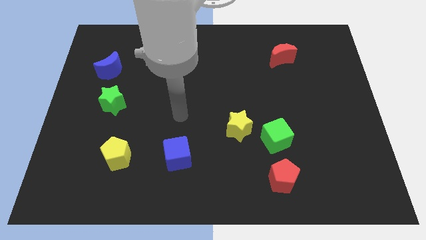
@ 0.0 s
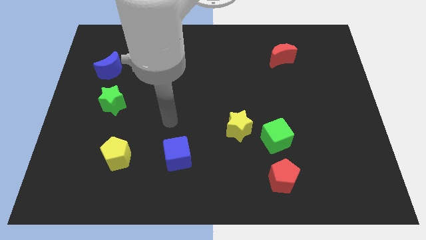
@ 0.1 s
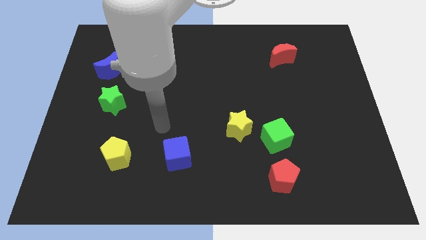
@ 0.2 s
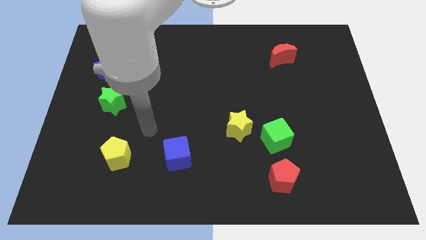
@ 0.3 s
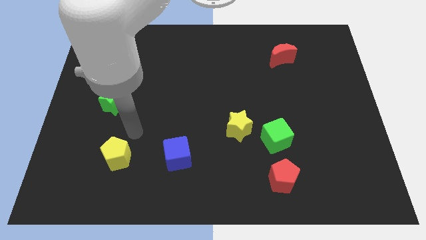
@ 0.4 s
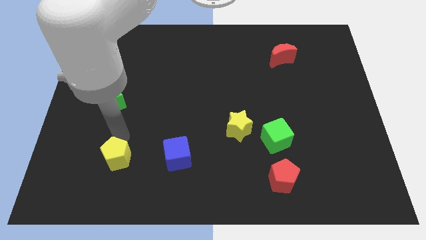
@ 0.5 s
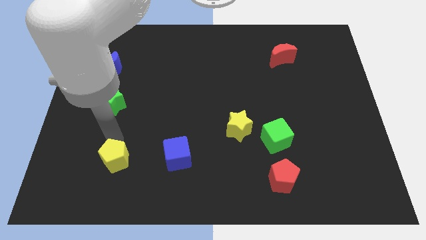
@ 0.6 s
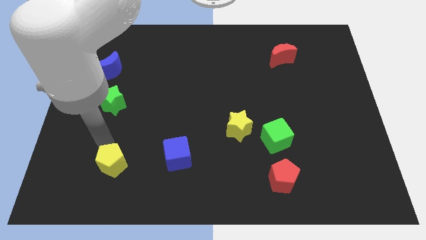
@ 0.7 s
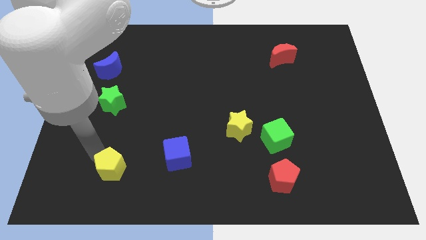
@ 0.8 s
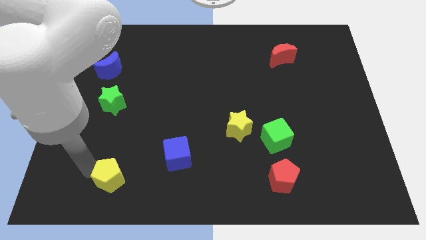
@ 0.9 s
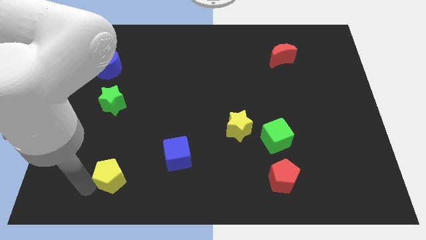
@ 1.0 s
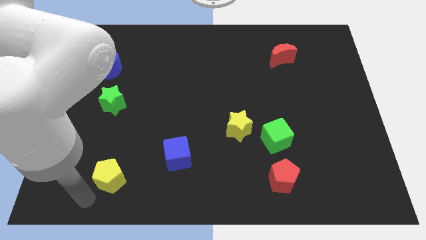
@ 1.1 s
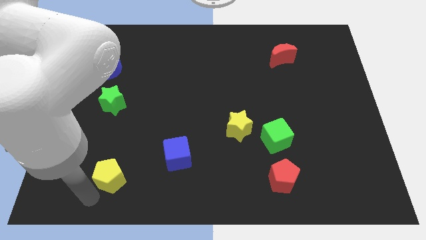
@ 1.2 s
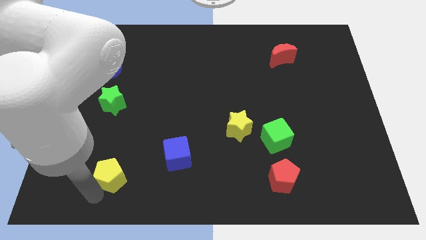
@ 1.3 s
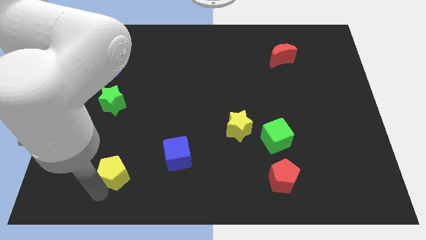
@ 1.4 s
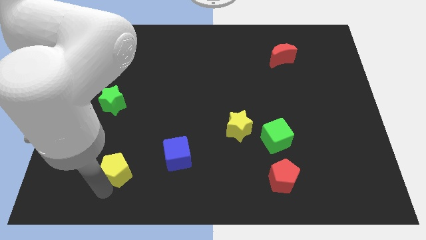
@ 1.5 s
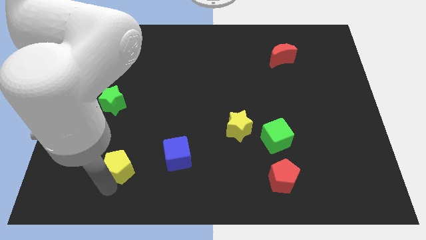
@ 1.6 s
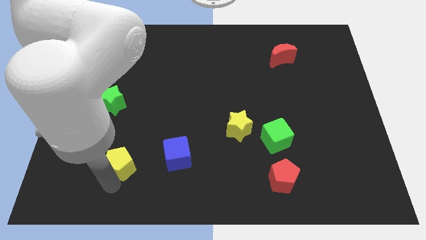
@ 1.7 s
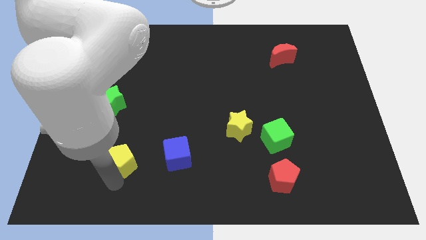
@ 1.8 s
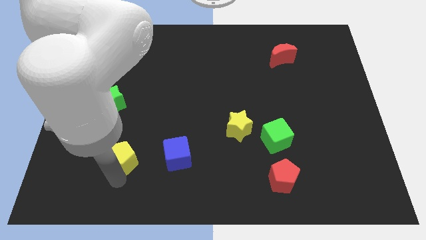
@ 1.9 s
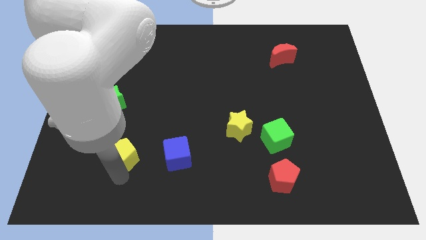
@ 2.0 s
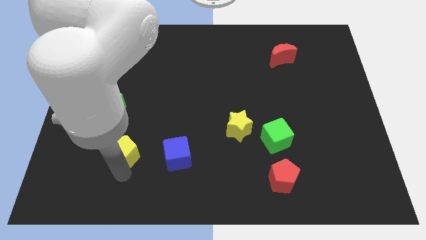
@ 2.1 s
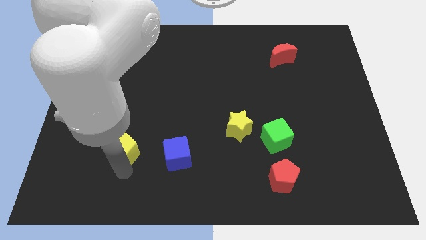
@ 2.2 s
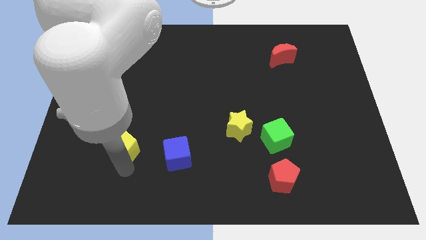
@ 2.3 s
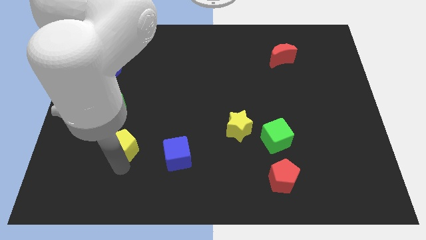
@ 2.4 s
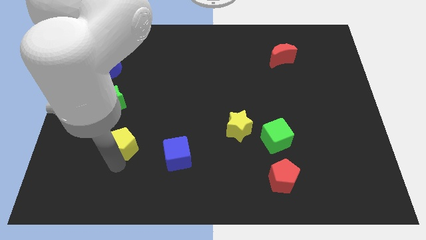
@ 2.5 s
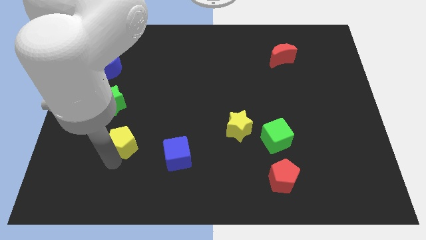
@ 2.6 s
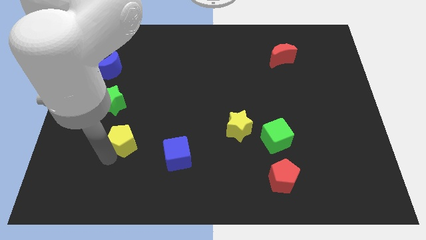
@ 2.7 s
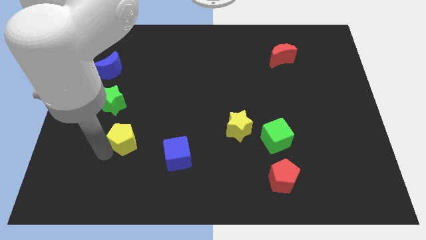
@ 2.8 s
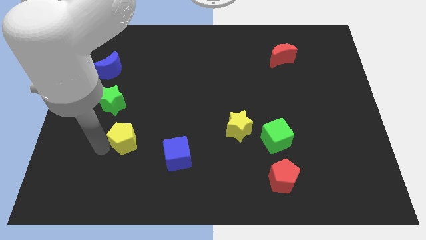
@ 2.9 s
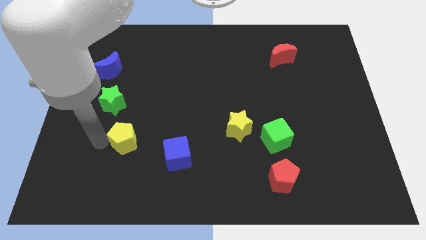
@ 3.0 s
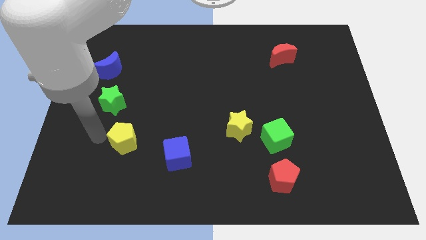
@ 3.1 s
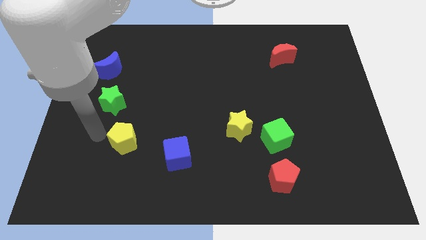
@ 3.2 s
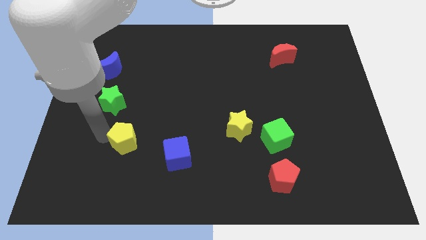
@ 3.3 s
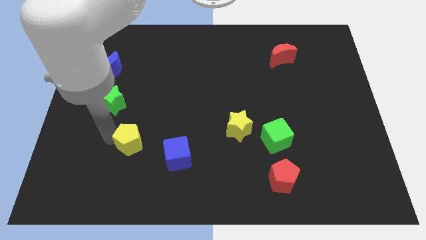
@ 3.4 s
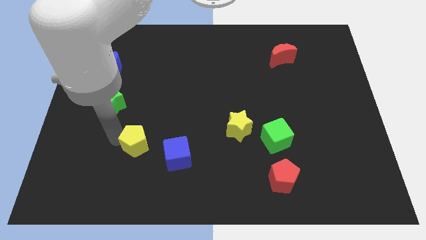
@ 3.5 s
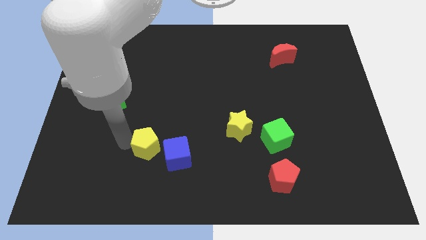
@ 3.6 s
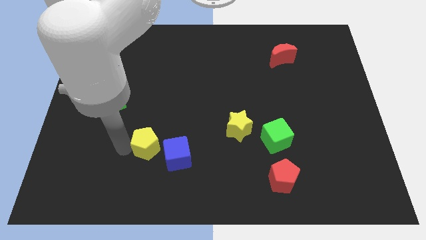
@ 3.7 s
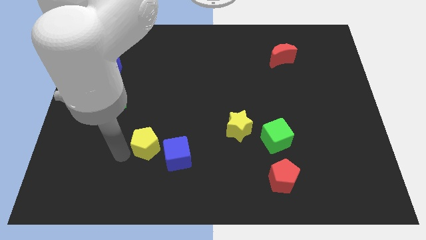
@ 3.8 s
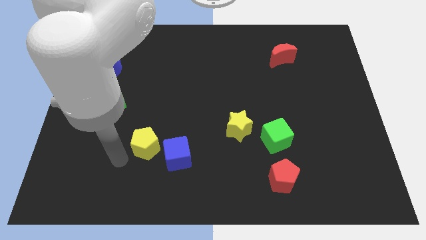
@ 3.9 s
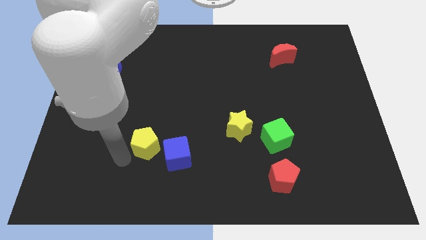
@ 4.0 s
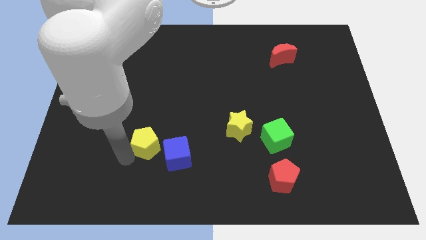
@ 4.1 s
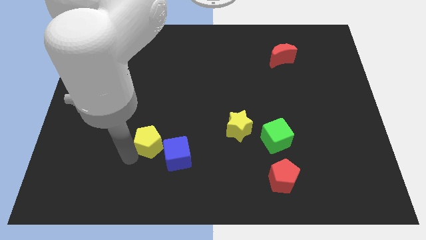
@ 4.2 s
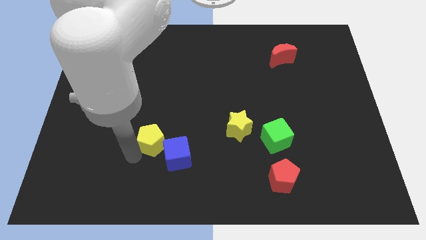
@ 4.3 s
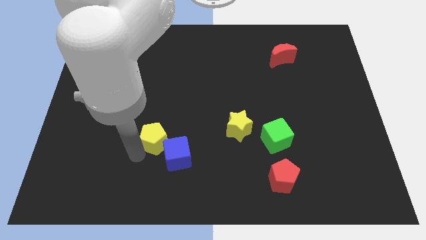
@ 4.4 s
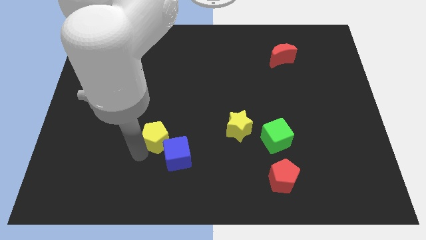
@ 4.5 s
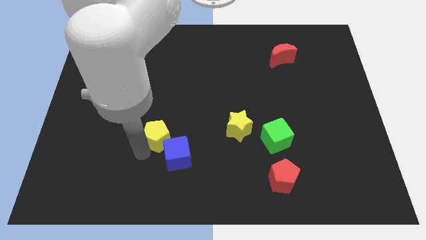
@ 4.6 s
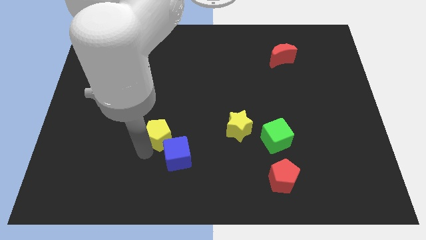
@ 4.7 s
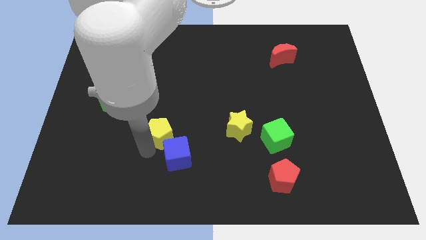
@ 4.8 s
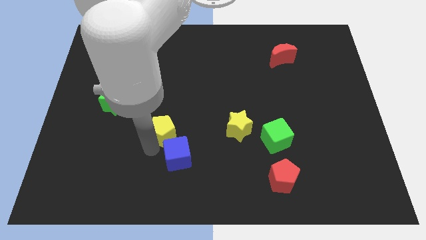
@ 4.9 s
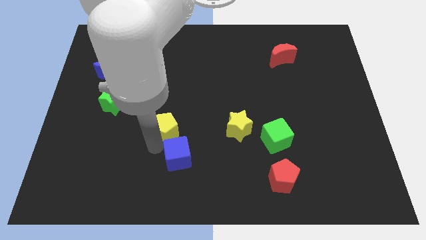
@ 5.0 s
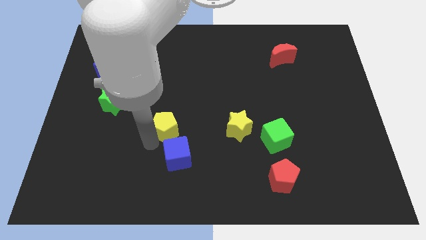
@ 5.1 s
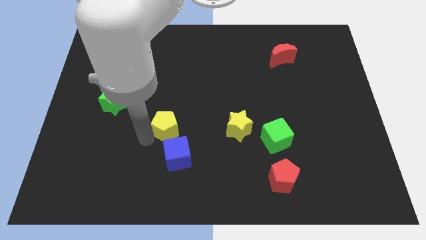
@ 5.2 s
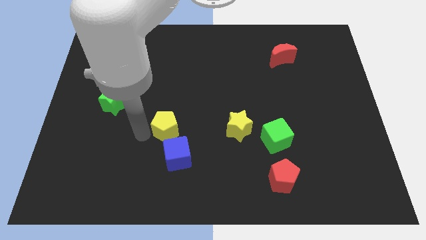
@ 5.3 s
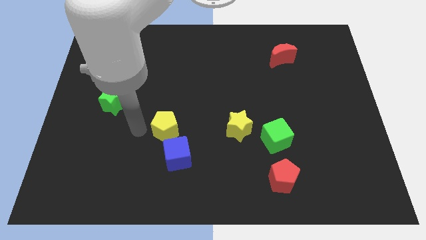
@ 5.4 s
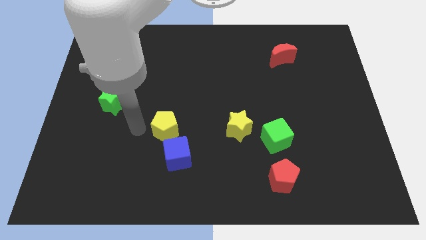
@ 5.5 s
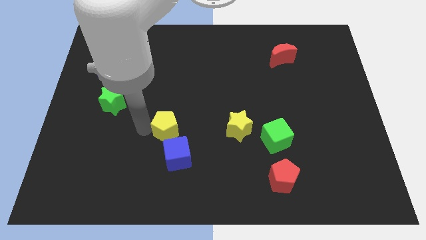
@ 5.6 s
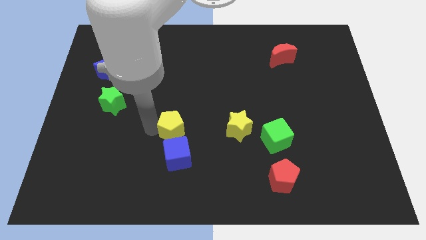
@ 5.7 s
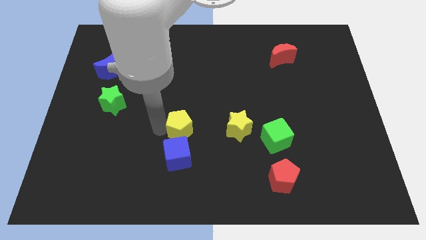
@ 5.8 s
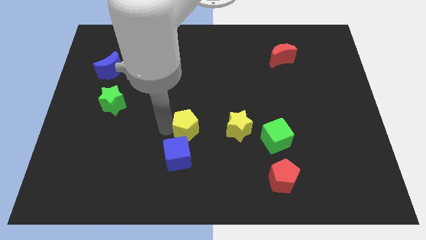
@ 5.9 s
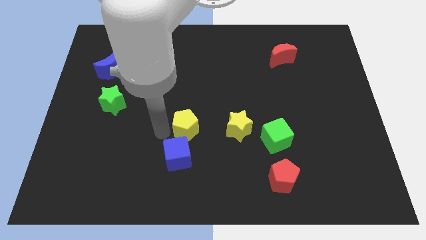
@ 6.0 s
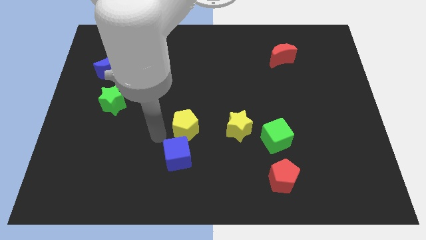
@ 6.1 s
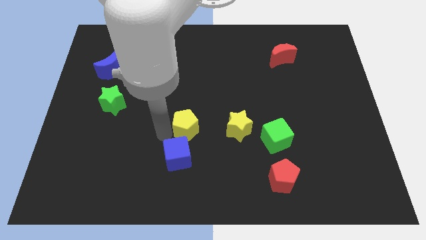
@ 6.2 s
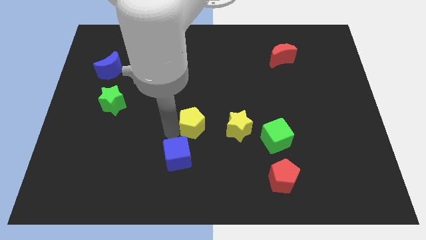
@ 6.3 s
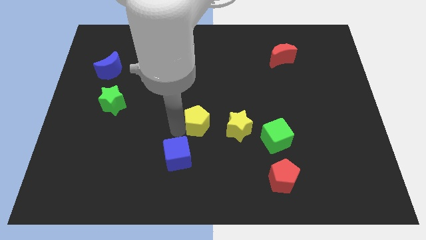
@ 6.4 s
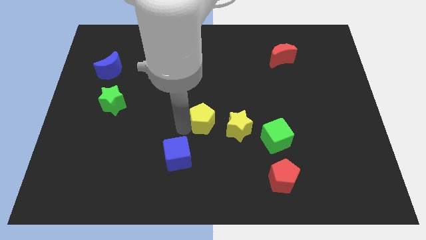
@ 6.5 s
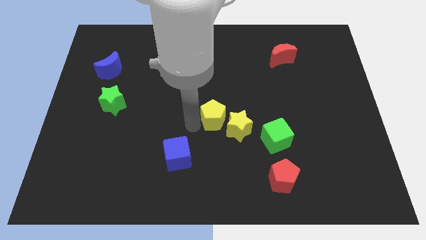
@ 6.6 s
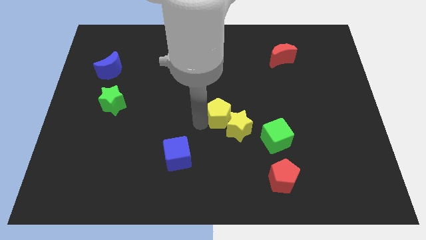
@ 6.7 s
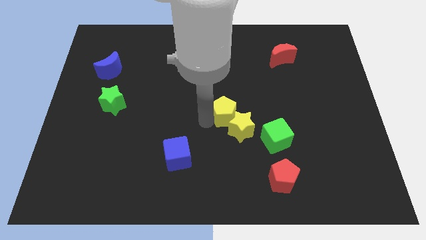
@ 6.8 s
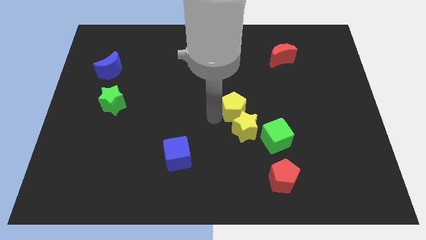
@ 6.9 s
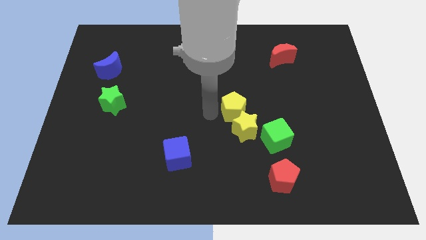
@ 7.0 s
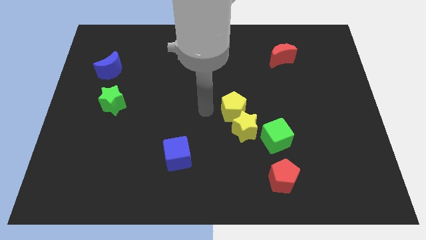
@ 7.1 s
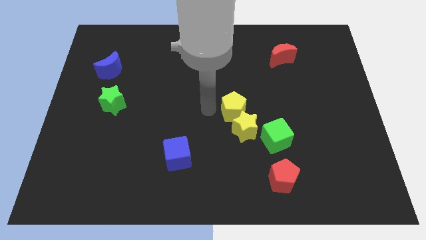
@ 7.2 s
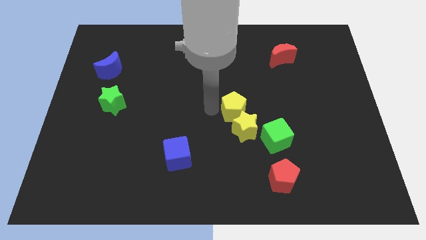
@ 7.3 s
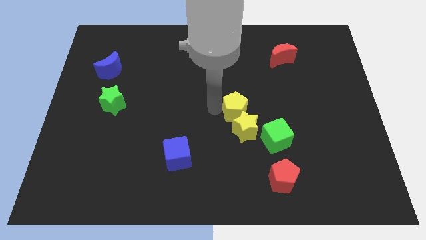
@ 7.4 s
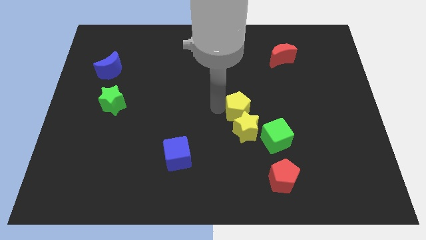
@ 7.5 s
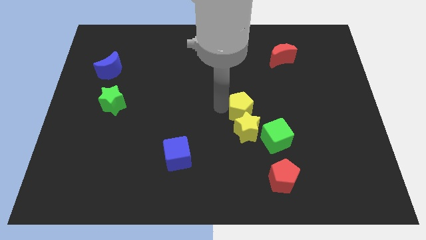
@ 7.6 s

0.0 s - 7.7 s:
put the yellow pentagon to the top right side of the yellow star
